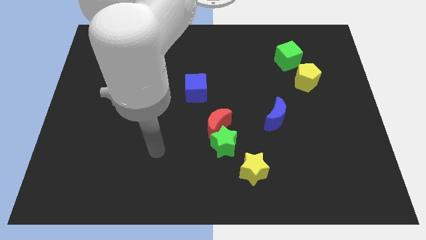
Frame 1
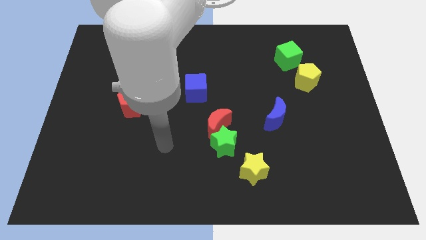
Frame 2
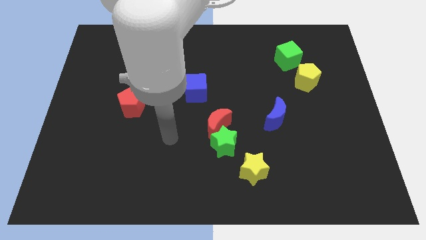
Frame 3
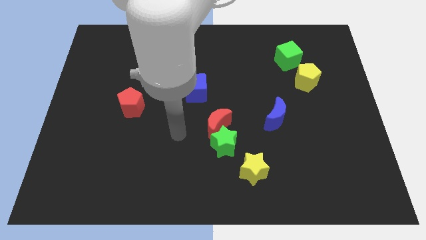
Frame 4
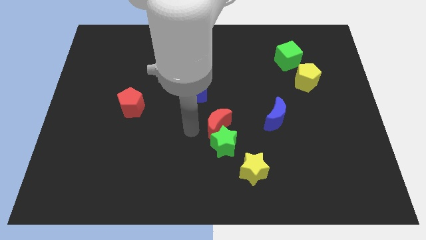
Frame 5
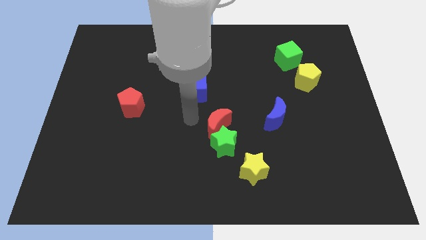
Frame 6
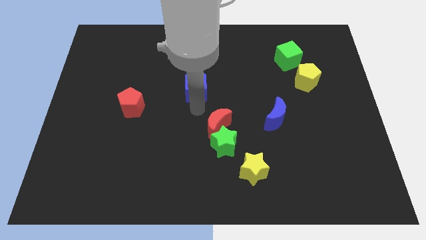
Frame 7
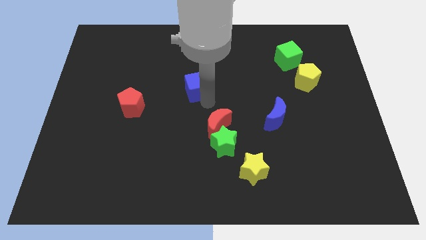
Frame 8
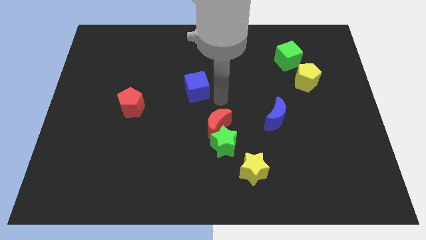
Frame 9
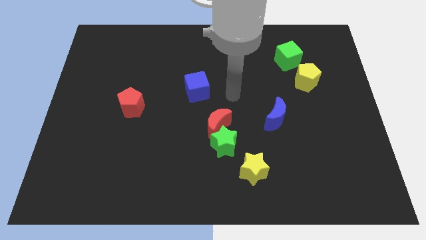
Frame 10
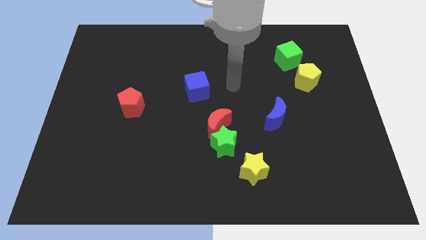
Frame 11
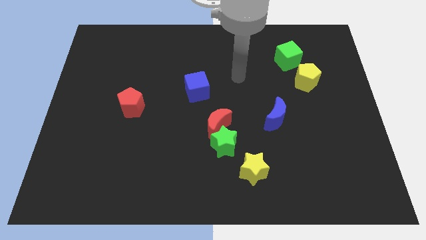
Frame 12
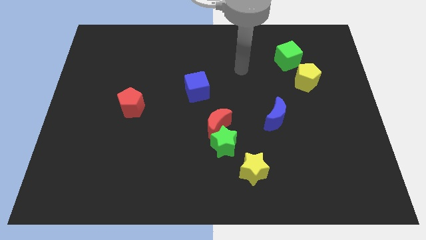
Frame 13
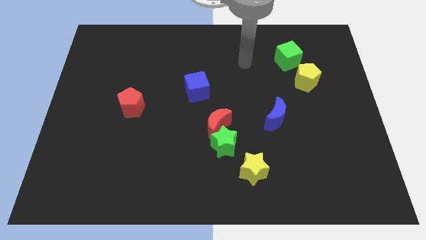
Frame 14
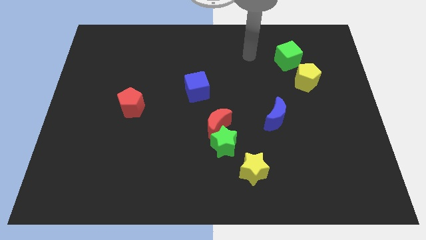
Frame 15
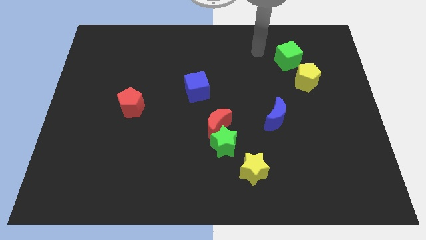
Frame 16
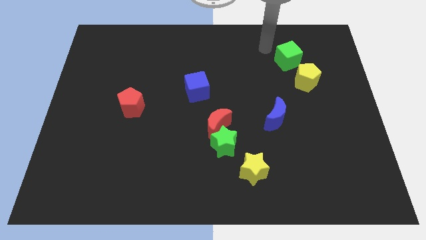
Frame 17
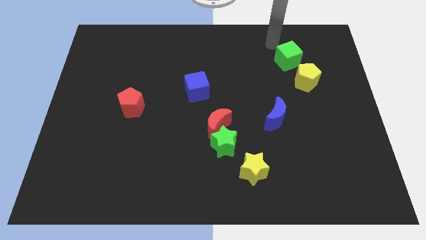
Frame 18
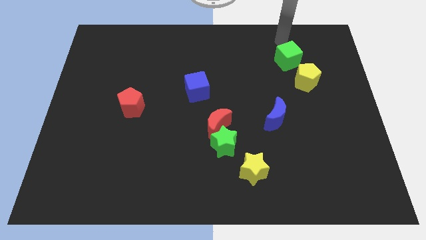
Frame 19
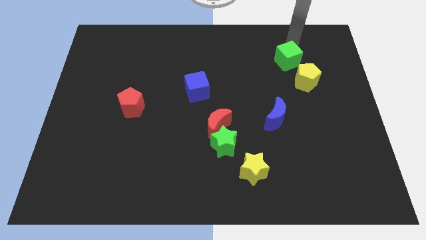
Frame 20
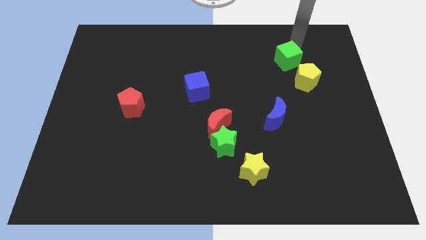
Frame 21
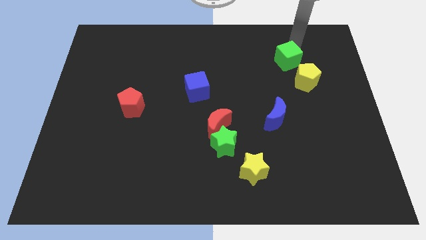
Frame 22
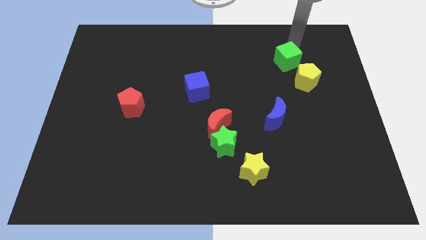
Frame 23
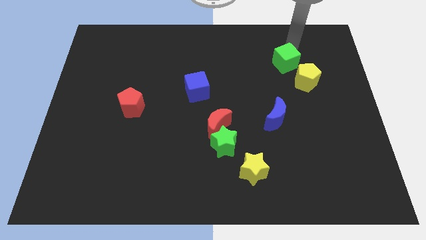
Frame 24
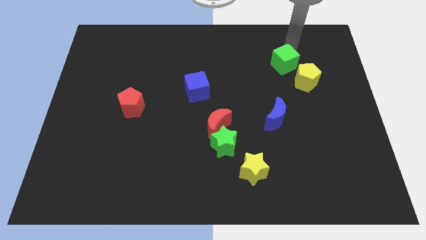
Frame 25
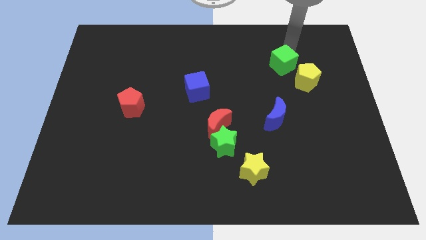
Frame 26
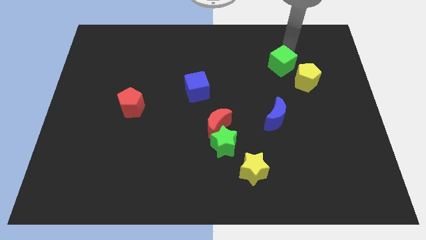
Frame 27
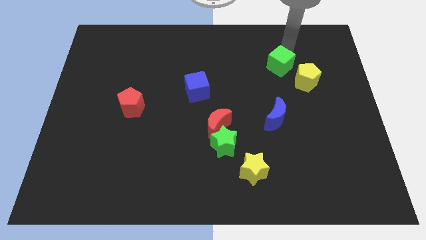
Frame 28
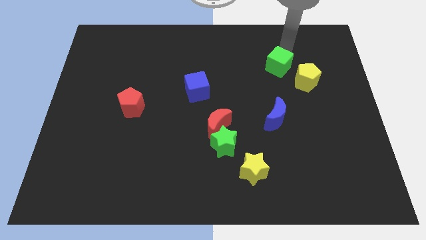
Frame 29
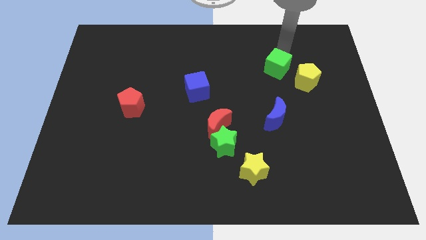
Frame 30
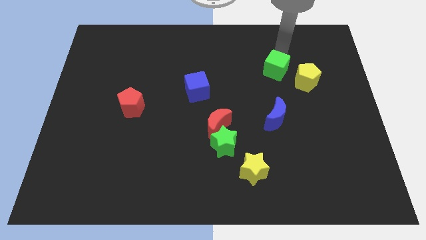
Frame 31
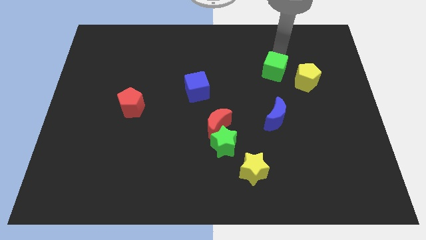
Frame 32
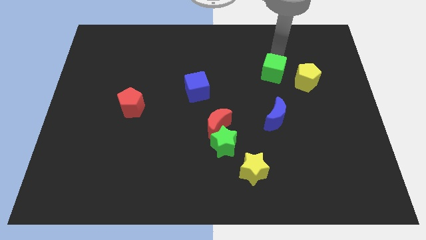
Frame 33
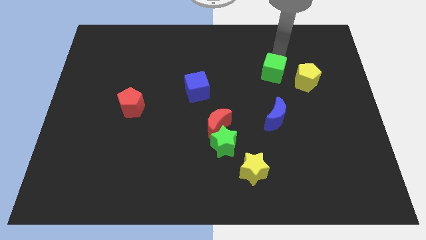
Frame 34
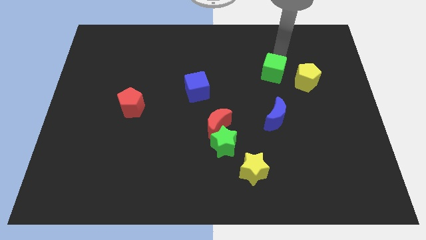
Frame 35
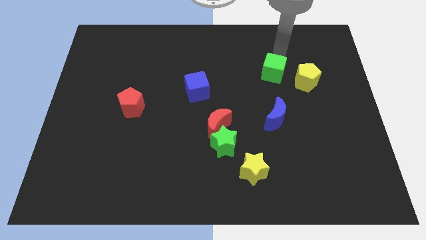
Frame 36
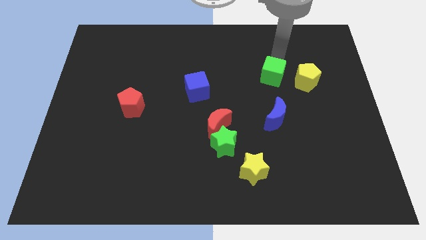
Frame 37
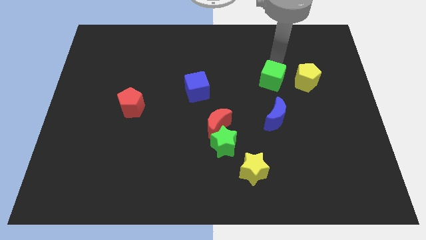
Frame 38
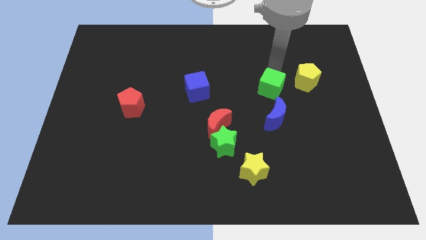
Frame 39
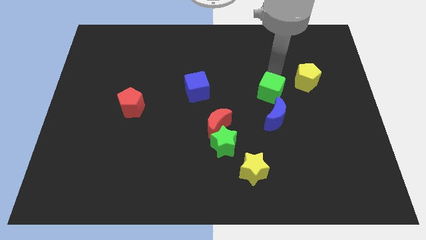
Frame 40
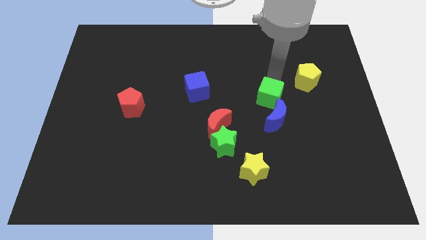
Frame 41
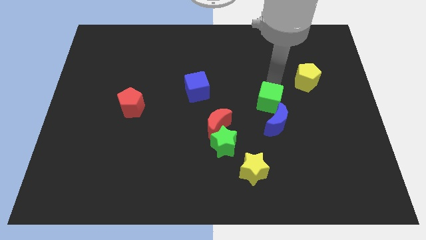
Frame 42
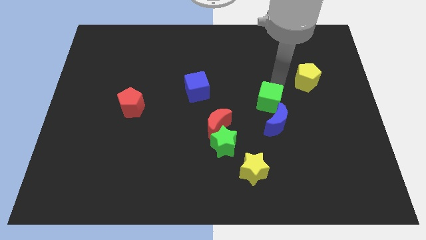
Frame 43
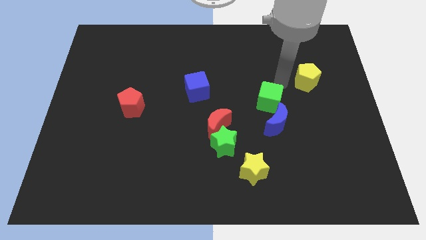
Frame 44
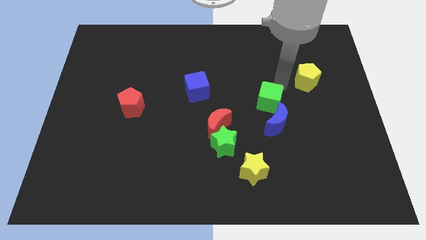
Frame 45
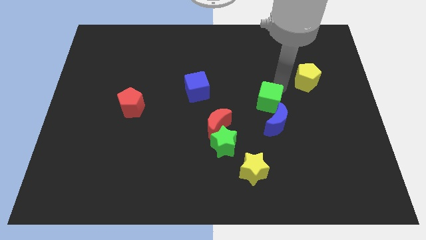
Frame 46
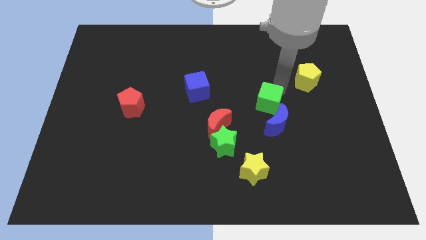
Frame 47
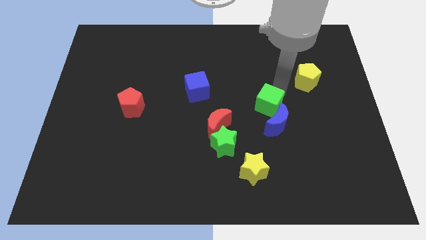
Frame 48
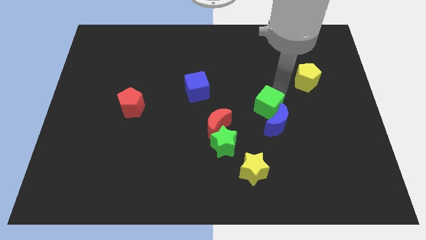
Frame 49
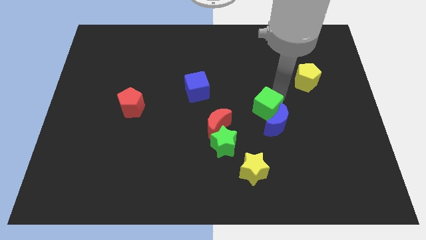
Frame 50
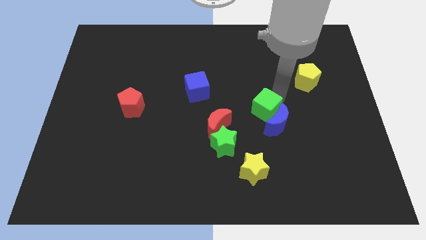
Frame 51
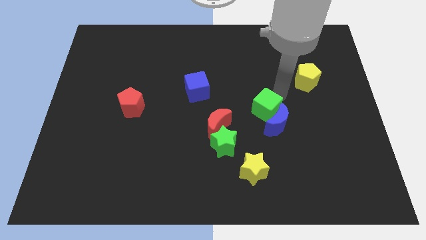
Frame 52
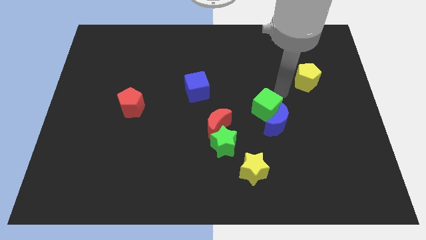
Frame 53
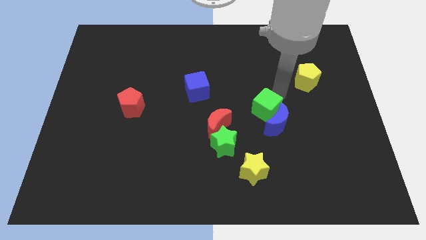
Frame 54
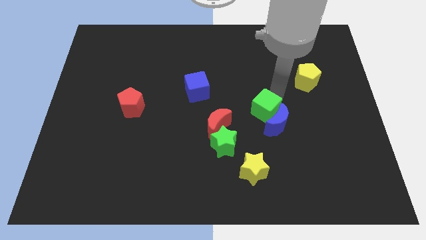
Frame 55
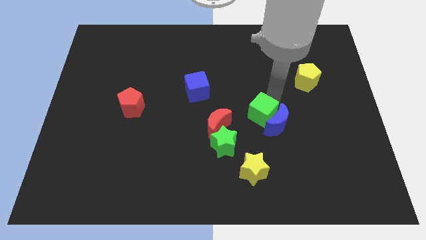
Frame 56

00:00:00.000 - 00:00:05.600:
put the green cube to the top side of the yellow star

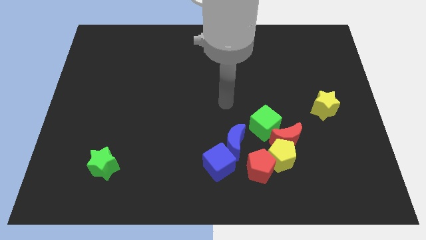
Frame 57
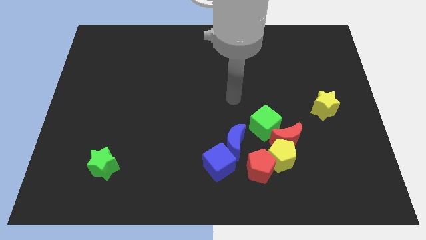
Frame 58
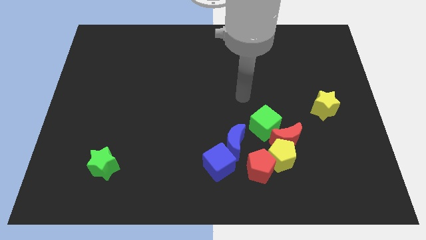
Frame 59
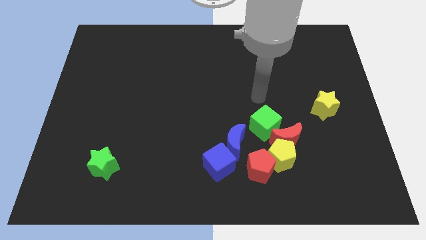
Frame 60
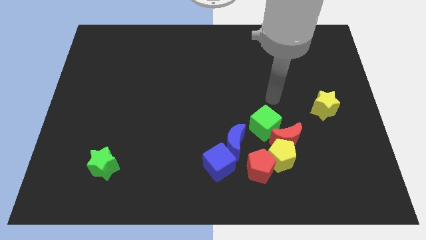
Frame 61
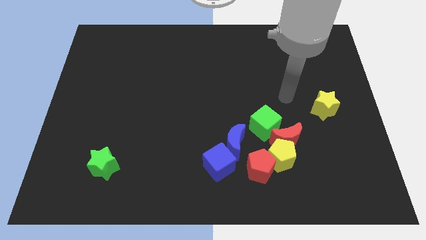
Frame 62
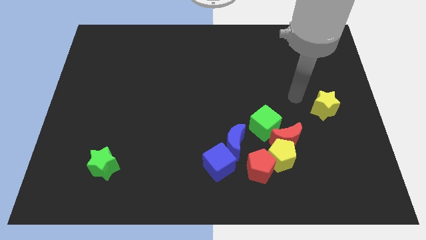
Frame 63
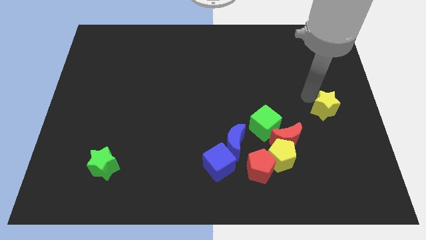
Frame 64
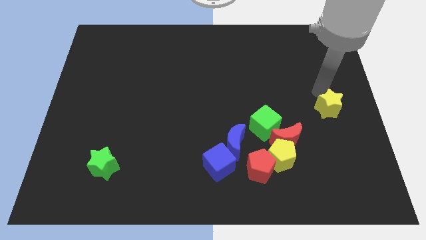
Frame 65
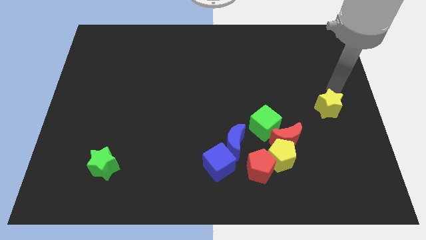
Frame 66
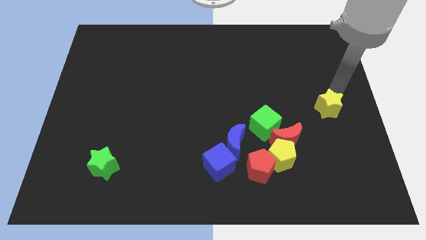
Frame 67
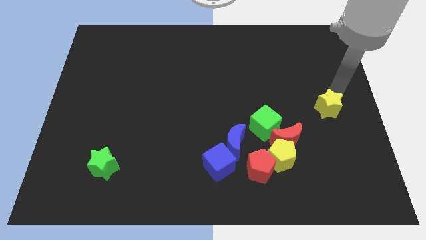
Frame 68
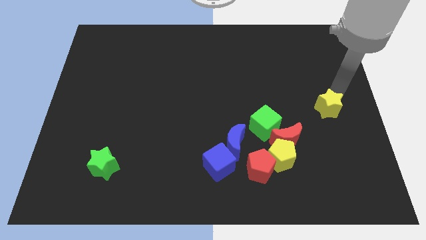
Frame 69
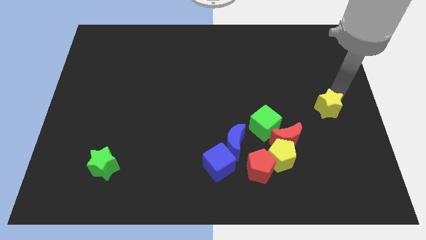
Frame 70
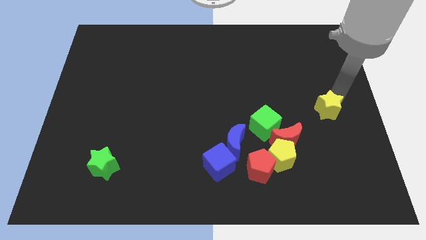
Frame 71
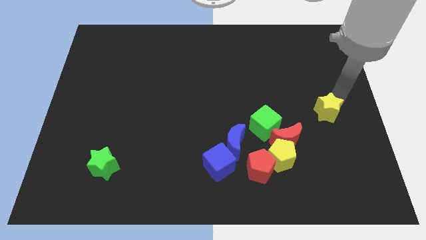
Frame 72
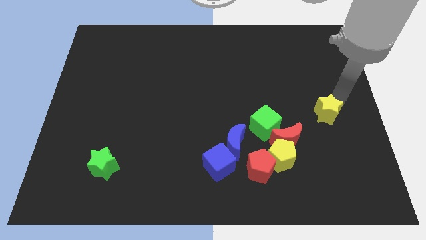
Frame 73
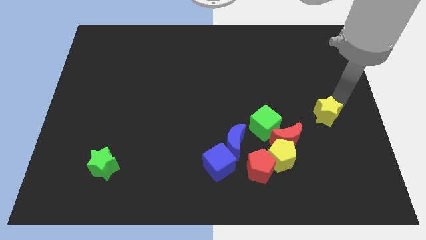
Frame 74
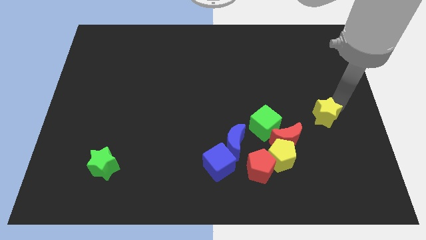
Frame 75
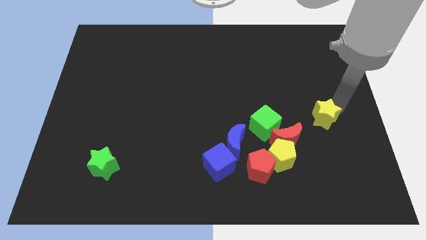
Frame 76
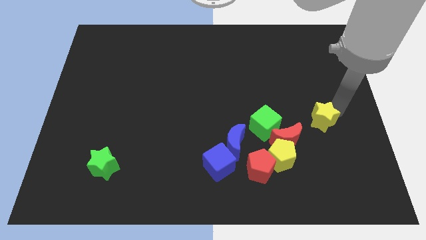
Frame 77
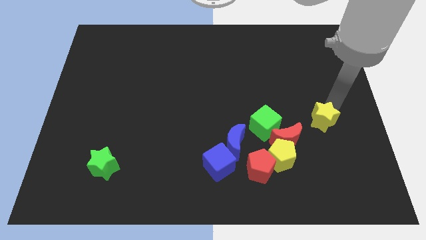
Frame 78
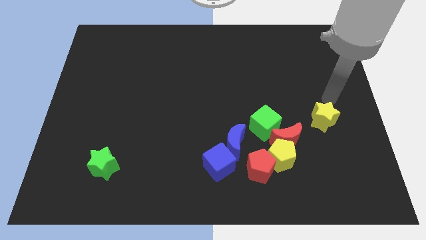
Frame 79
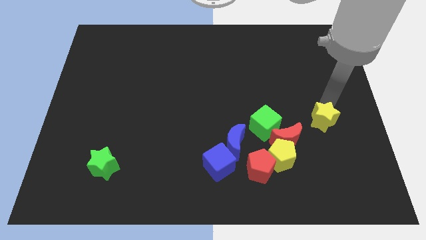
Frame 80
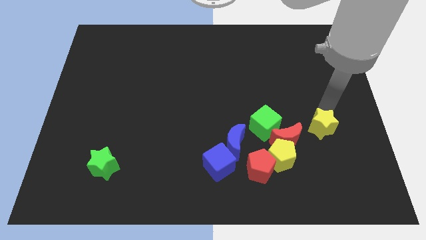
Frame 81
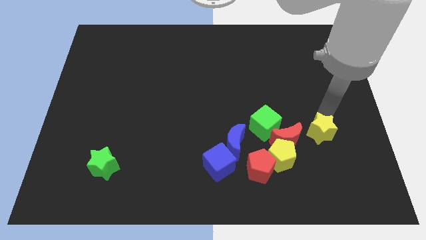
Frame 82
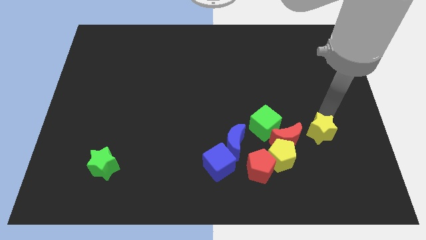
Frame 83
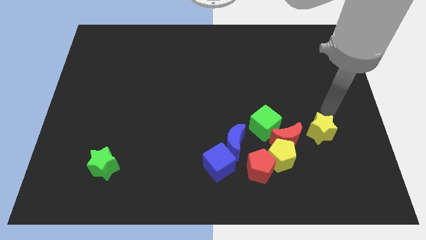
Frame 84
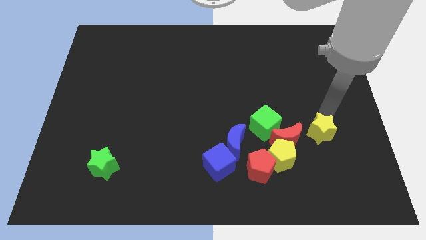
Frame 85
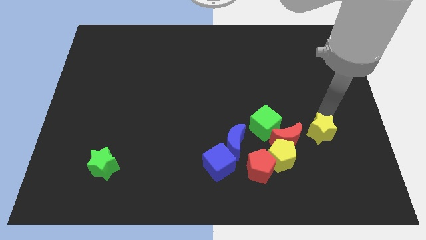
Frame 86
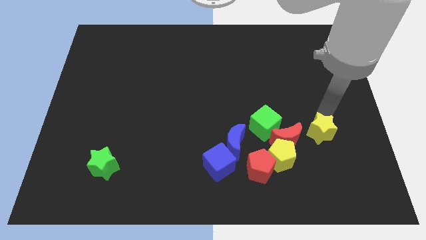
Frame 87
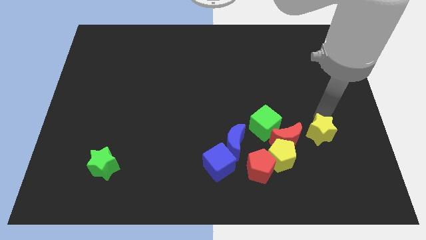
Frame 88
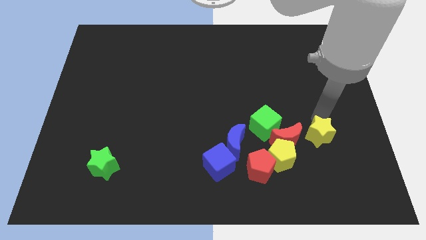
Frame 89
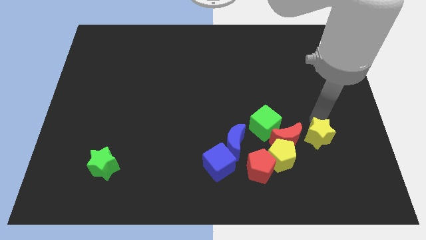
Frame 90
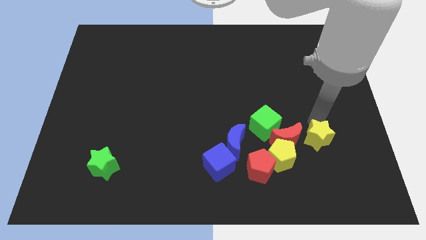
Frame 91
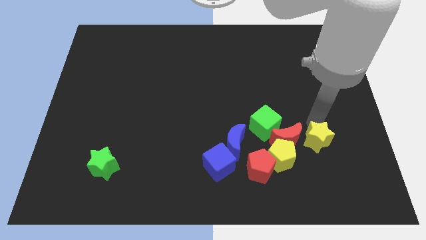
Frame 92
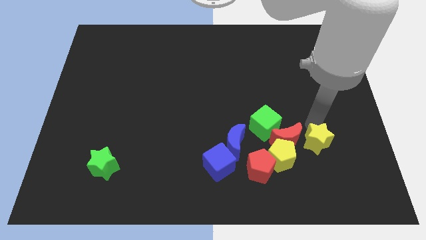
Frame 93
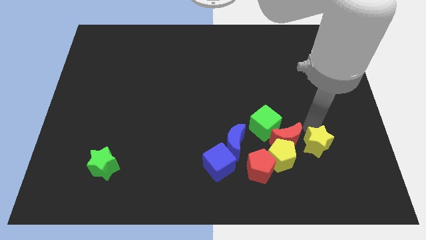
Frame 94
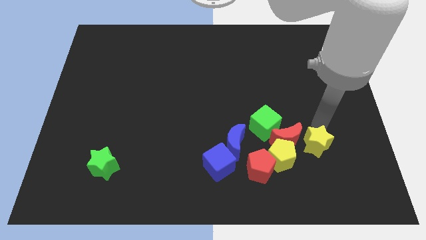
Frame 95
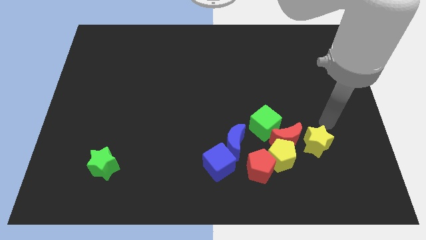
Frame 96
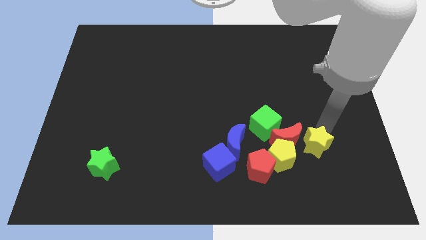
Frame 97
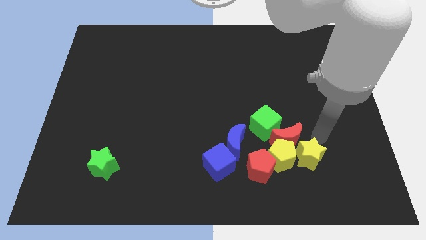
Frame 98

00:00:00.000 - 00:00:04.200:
put the yellow star to the bottom of the red moon
